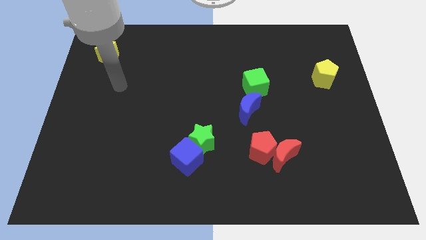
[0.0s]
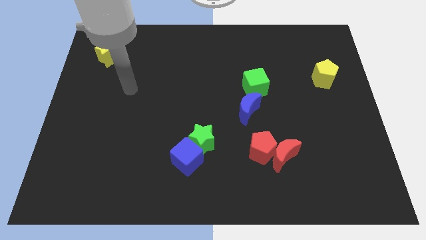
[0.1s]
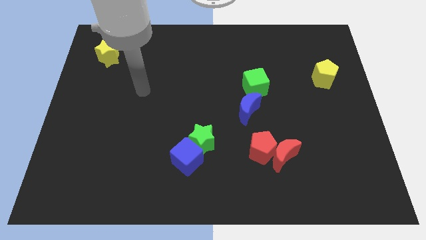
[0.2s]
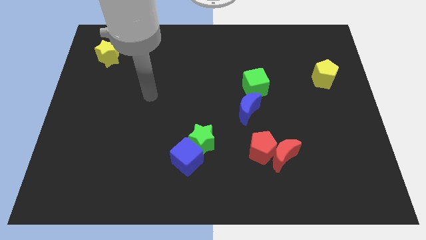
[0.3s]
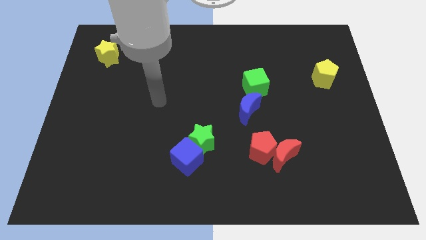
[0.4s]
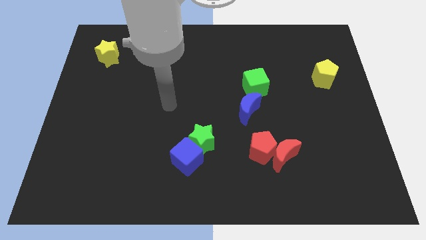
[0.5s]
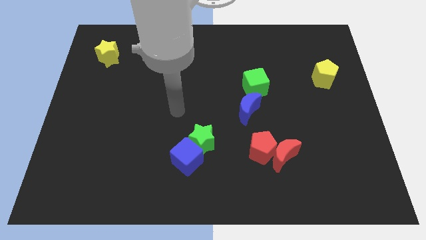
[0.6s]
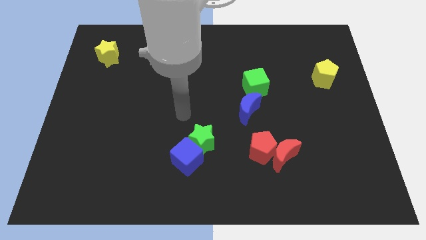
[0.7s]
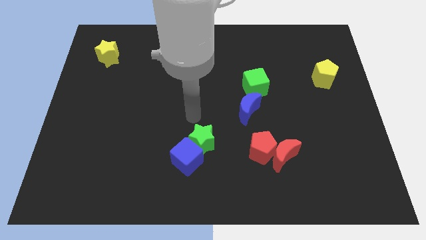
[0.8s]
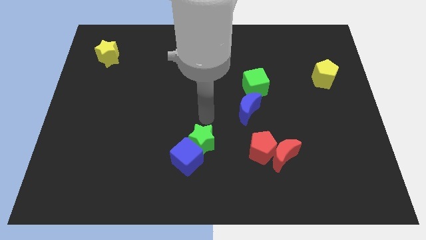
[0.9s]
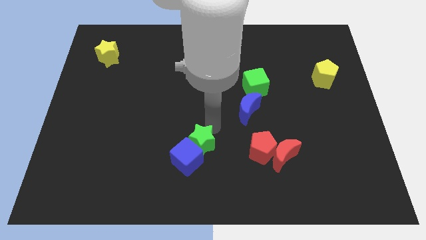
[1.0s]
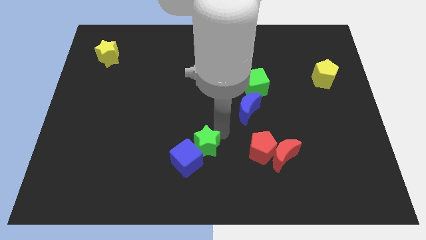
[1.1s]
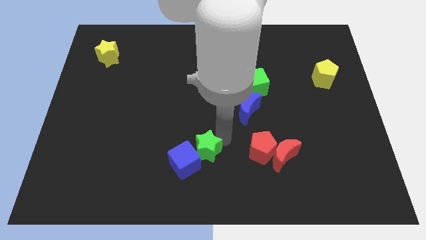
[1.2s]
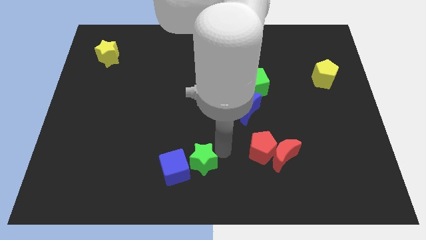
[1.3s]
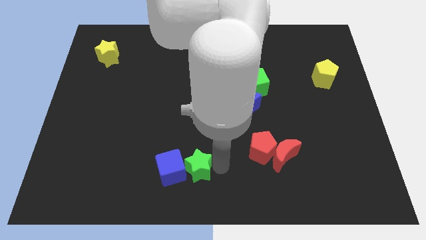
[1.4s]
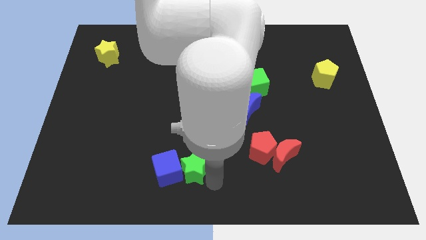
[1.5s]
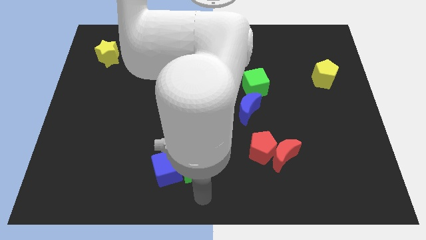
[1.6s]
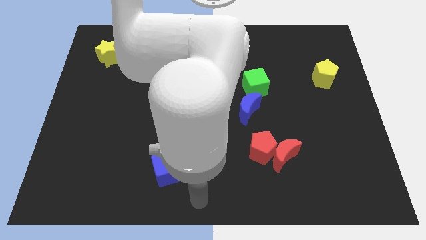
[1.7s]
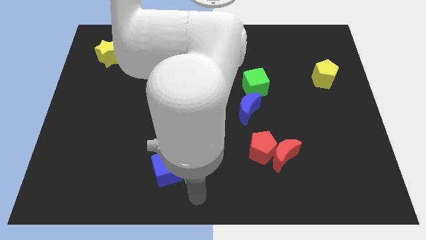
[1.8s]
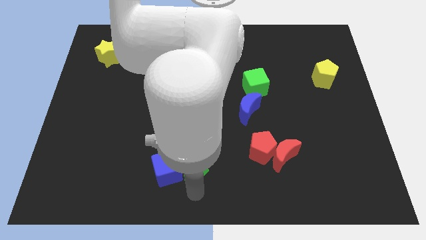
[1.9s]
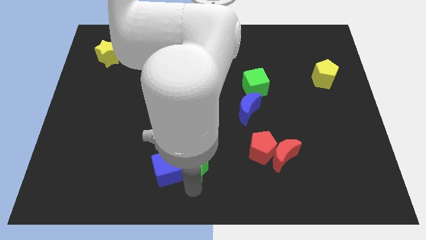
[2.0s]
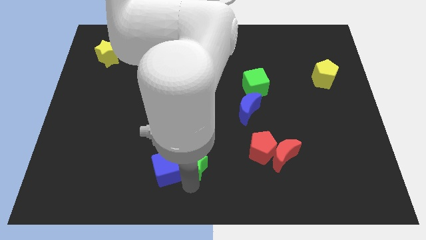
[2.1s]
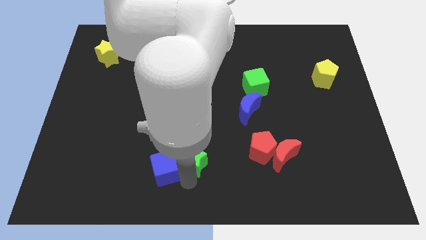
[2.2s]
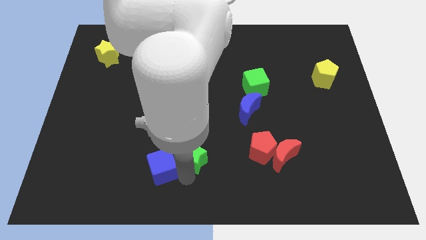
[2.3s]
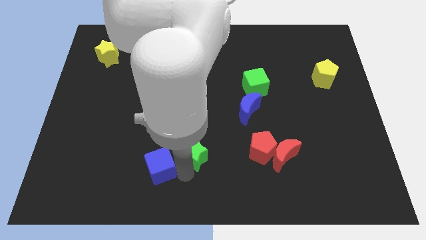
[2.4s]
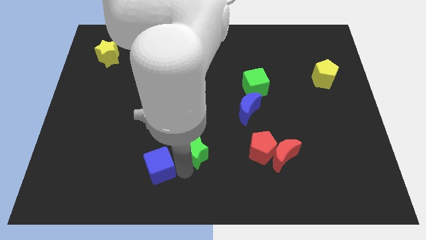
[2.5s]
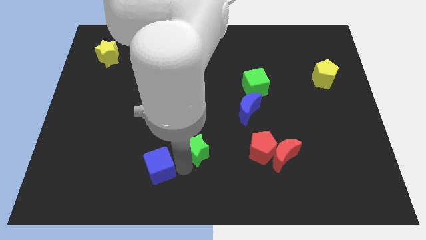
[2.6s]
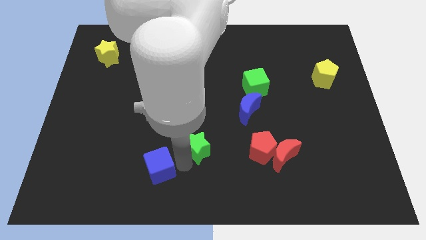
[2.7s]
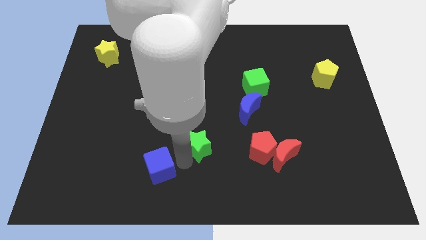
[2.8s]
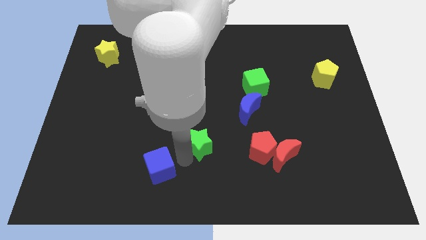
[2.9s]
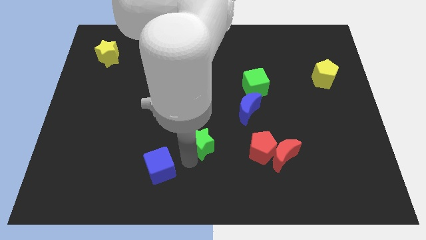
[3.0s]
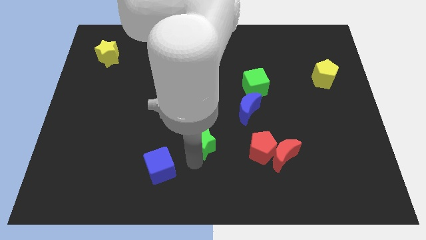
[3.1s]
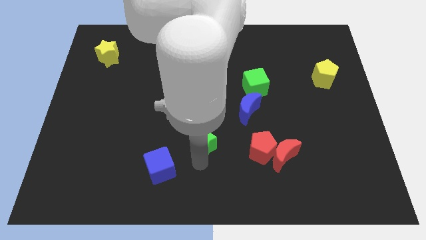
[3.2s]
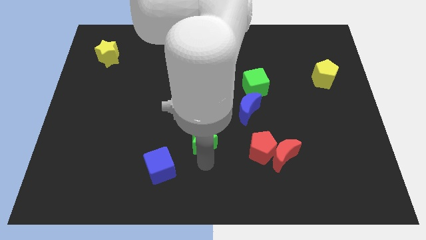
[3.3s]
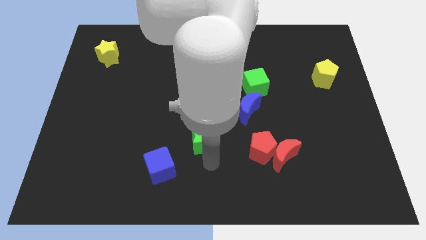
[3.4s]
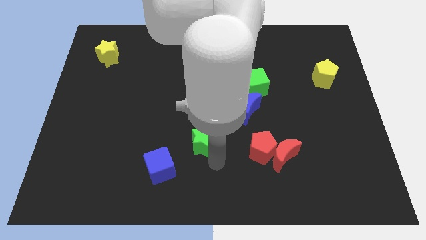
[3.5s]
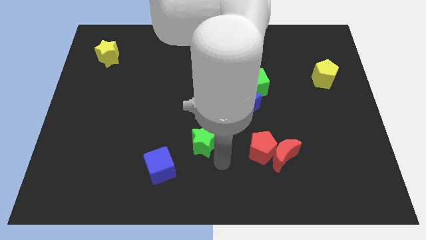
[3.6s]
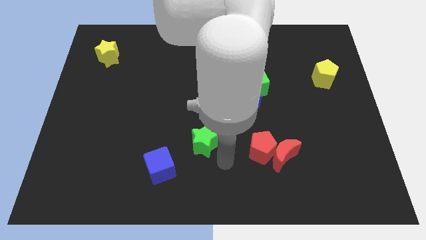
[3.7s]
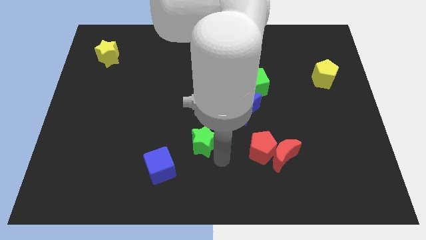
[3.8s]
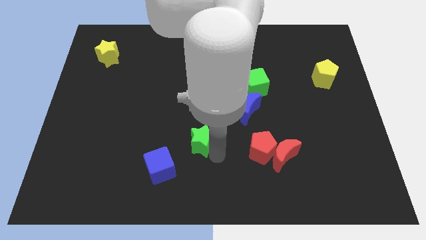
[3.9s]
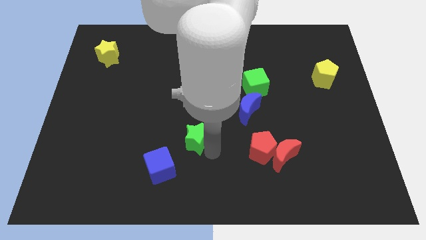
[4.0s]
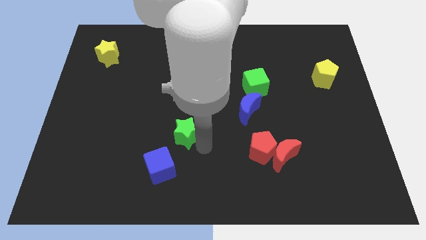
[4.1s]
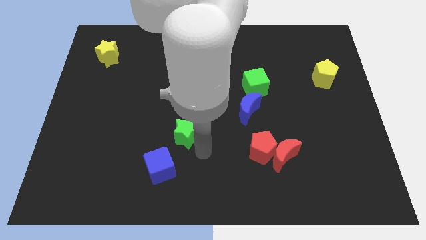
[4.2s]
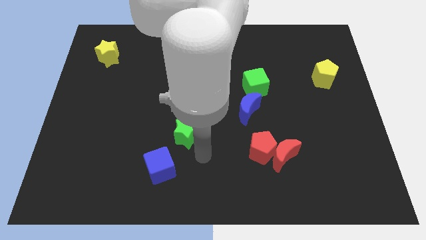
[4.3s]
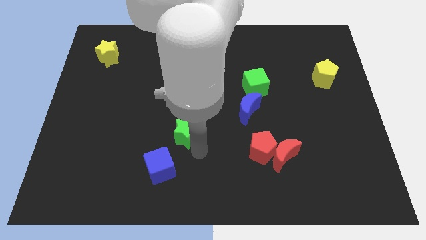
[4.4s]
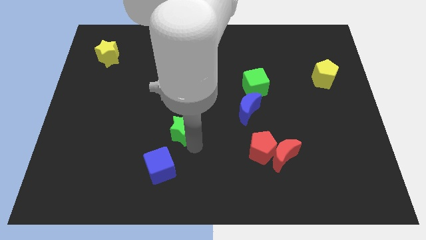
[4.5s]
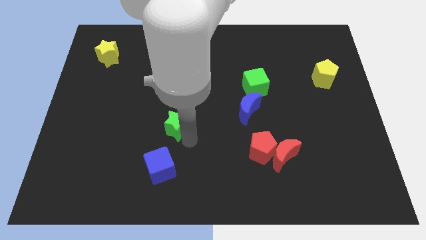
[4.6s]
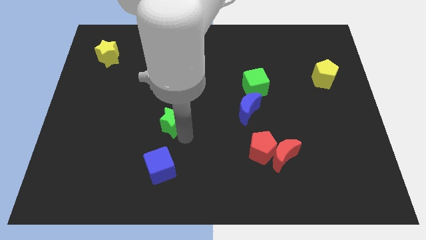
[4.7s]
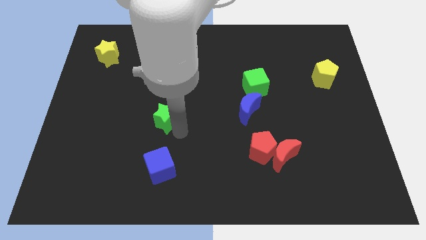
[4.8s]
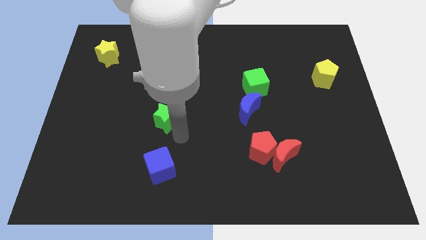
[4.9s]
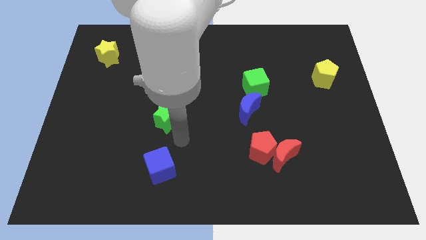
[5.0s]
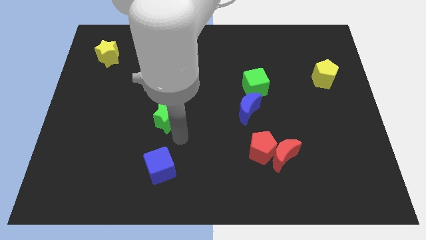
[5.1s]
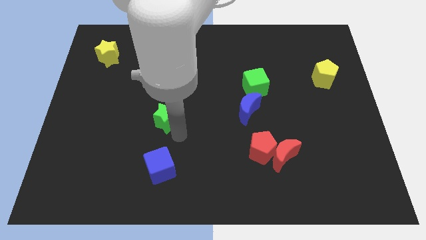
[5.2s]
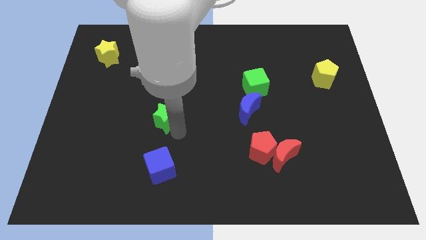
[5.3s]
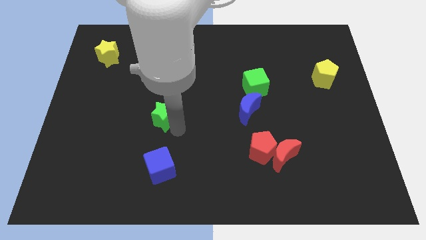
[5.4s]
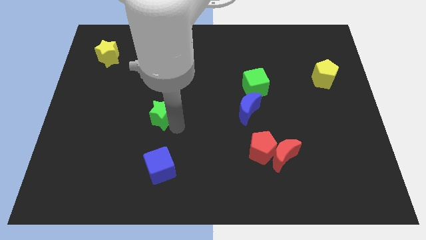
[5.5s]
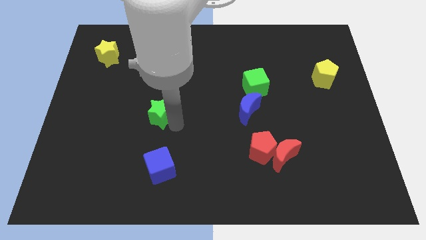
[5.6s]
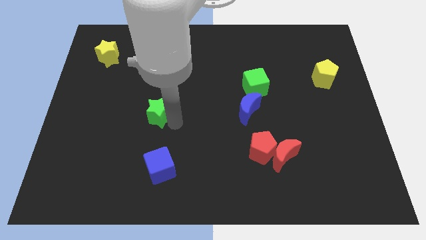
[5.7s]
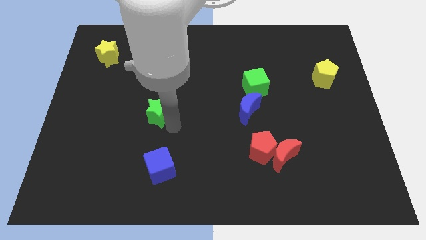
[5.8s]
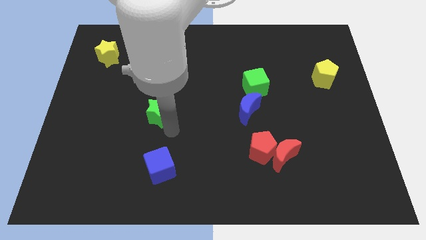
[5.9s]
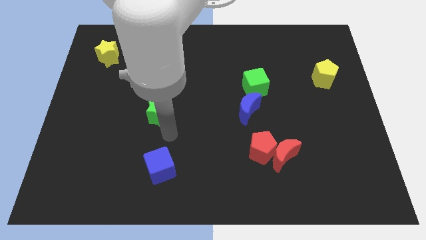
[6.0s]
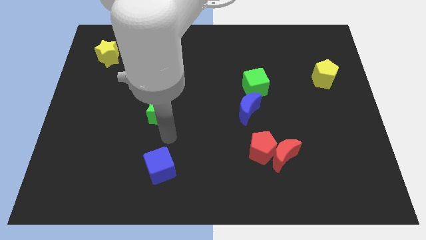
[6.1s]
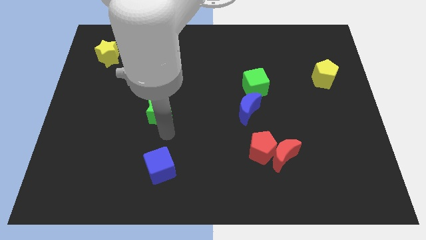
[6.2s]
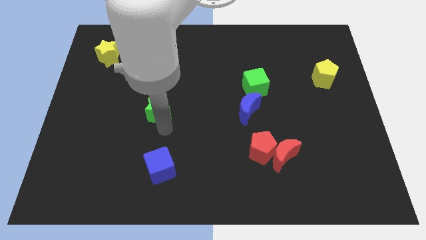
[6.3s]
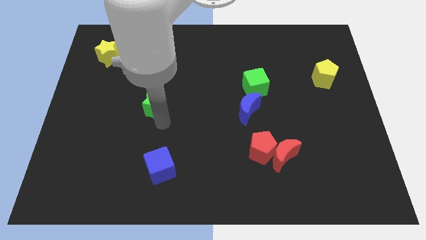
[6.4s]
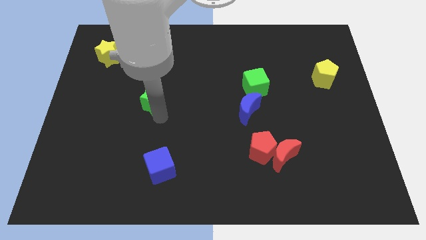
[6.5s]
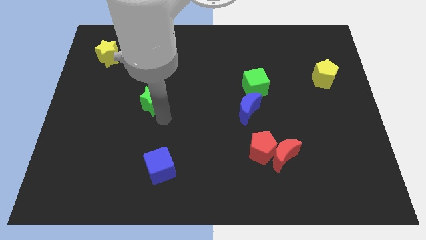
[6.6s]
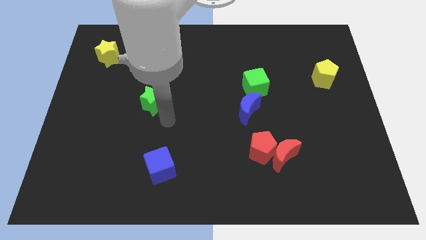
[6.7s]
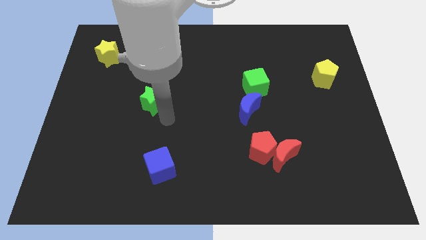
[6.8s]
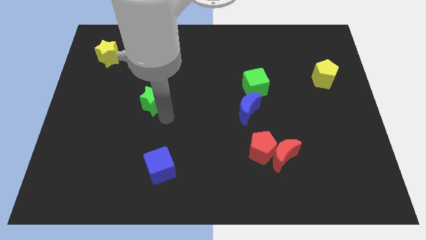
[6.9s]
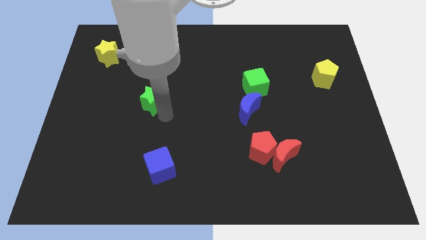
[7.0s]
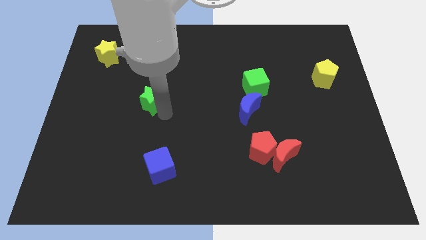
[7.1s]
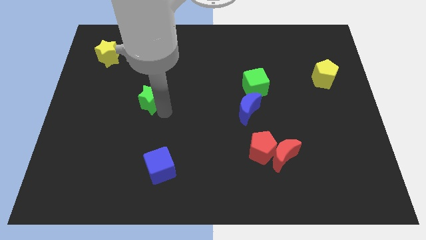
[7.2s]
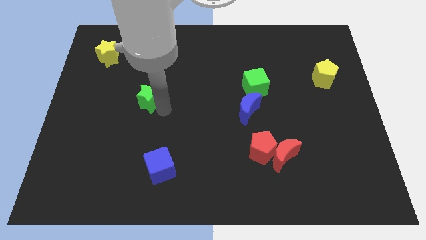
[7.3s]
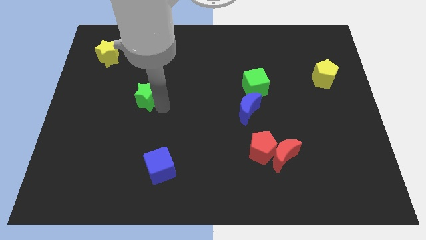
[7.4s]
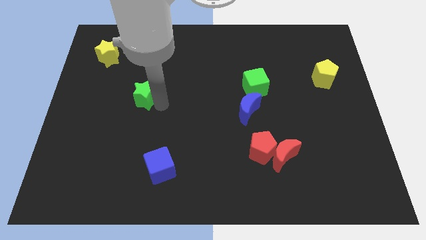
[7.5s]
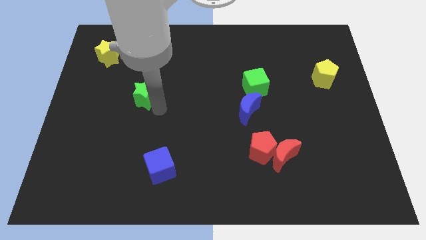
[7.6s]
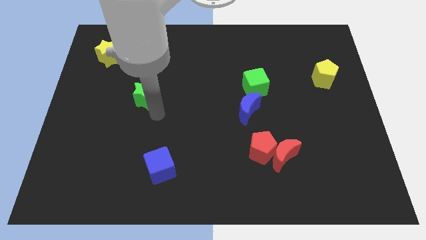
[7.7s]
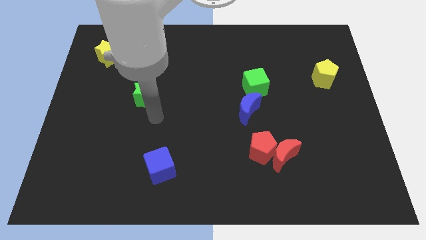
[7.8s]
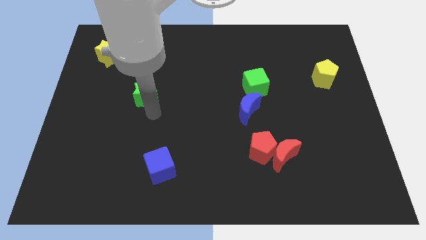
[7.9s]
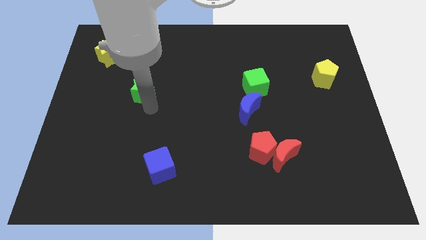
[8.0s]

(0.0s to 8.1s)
push the green star upwards and then to the left
